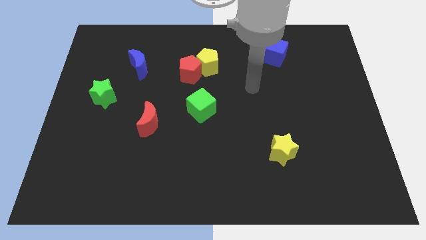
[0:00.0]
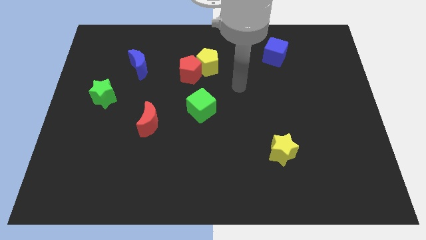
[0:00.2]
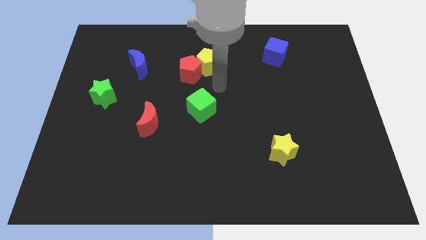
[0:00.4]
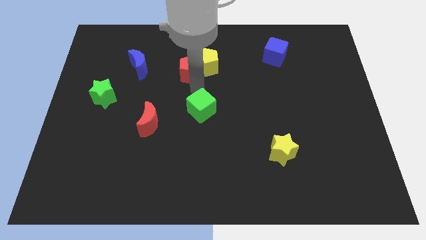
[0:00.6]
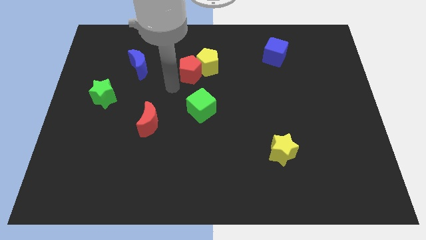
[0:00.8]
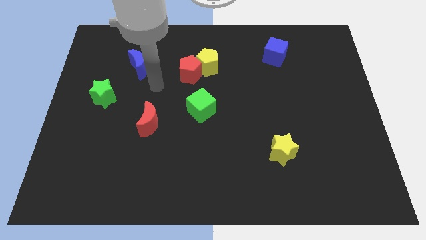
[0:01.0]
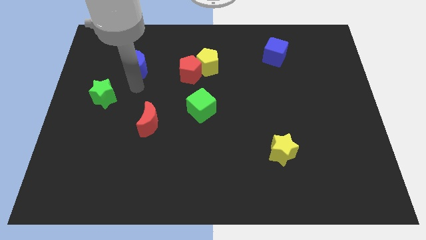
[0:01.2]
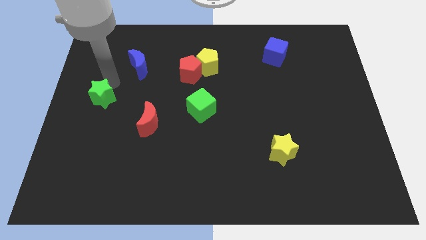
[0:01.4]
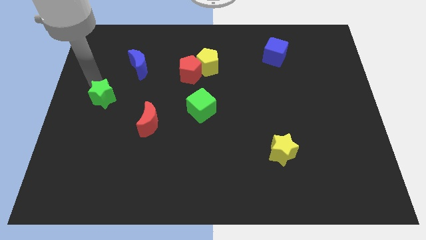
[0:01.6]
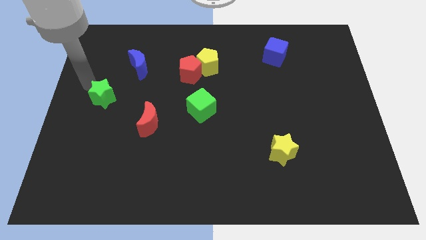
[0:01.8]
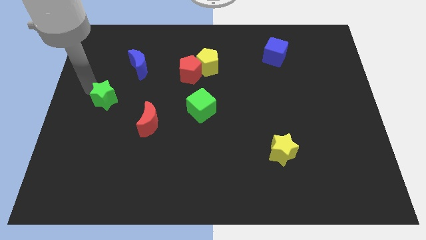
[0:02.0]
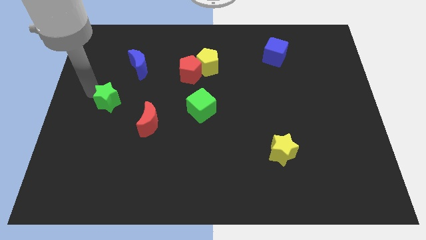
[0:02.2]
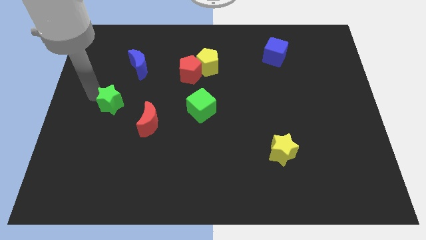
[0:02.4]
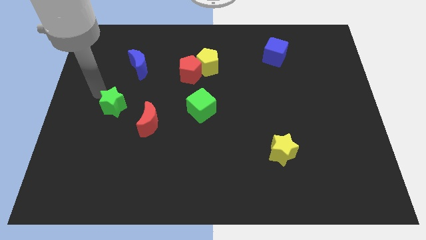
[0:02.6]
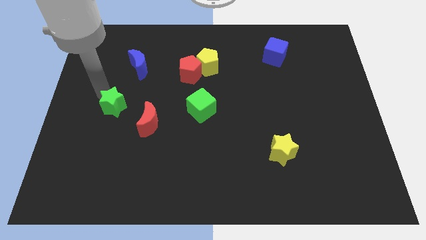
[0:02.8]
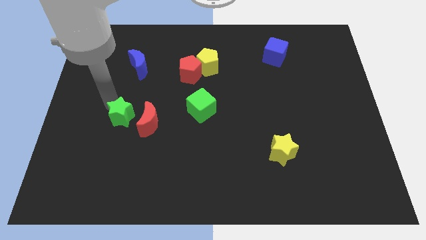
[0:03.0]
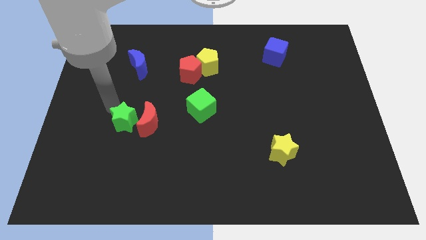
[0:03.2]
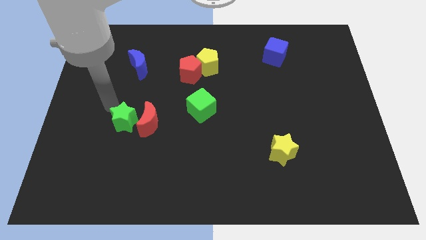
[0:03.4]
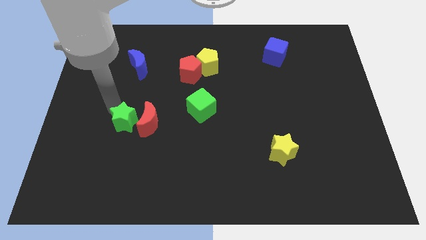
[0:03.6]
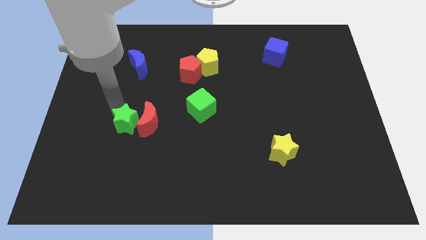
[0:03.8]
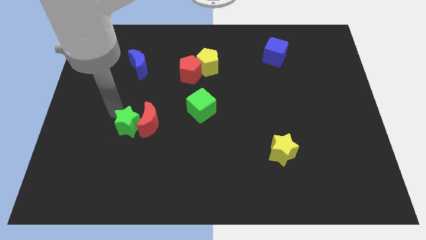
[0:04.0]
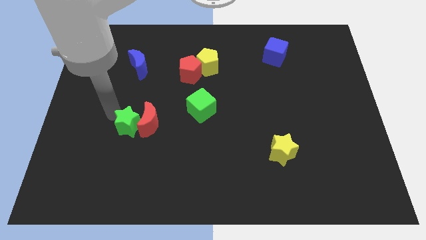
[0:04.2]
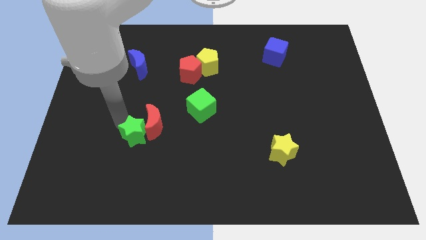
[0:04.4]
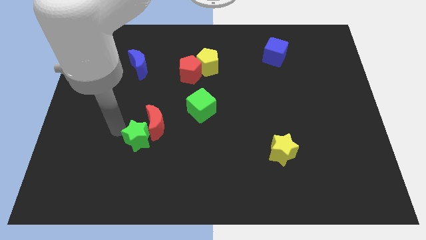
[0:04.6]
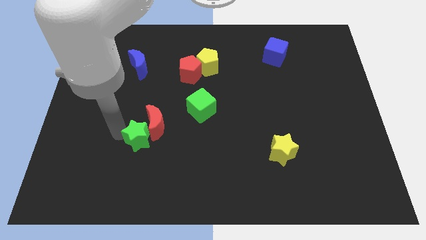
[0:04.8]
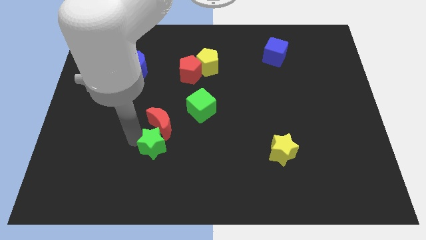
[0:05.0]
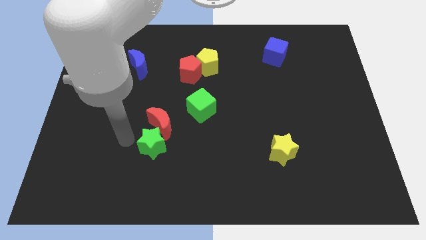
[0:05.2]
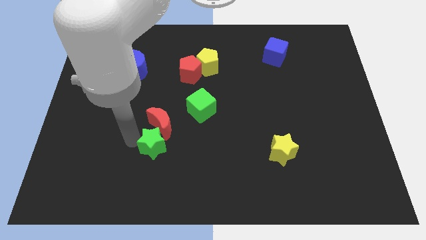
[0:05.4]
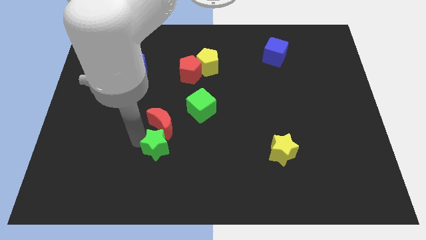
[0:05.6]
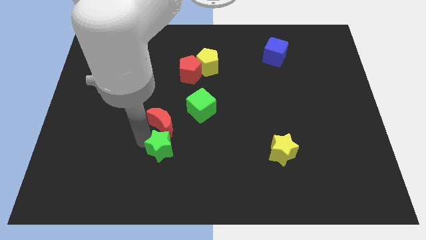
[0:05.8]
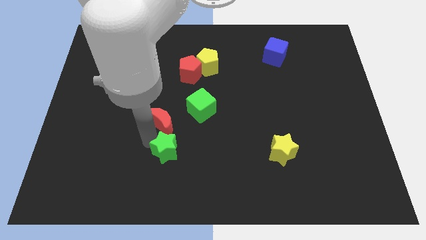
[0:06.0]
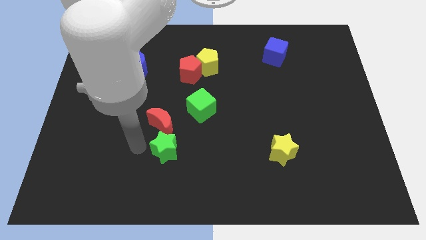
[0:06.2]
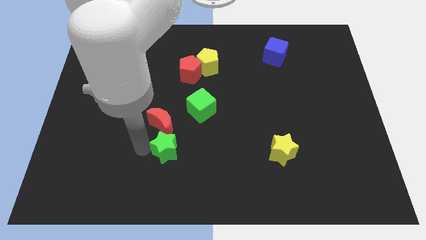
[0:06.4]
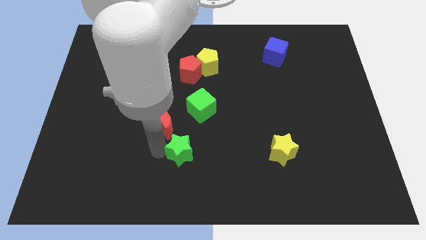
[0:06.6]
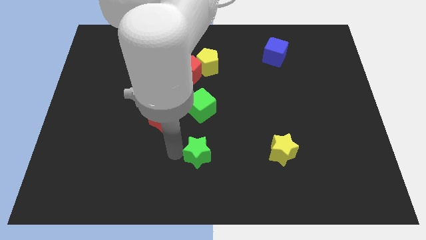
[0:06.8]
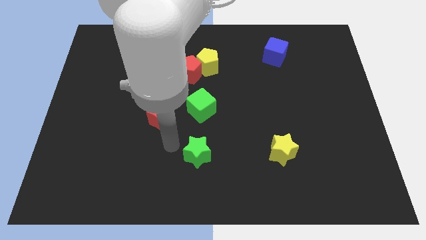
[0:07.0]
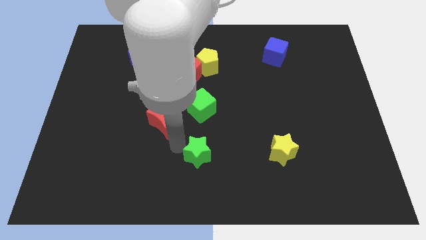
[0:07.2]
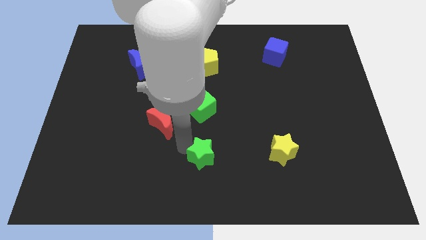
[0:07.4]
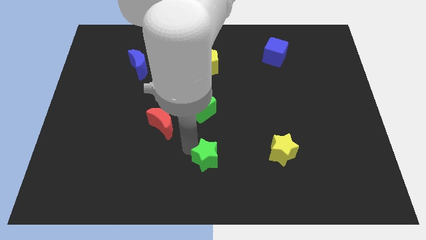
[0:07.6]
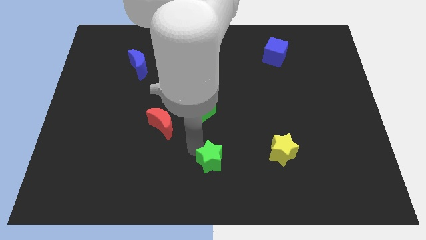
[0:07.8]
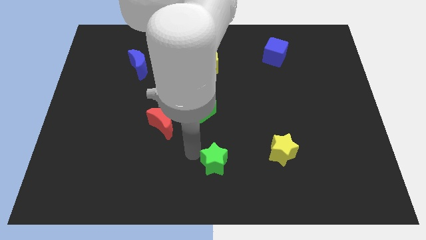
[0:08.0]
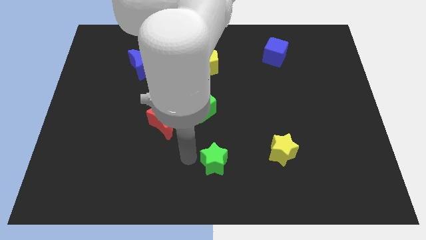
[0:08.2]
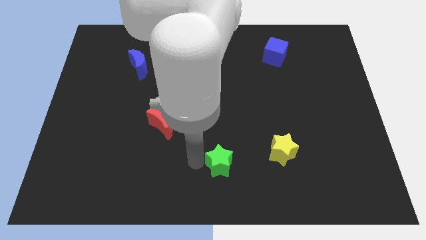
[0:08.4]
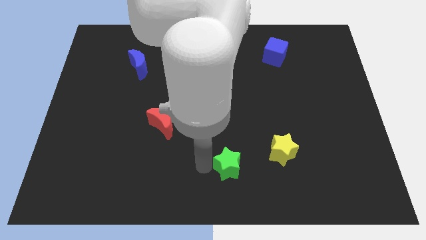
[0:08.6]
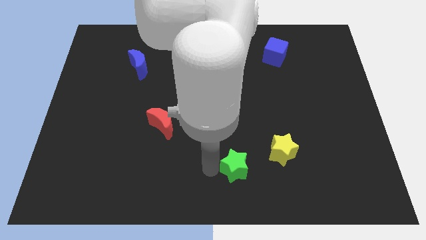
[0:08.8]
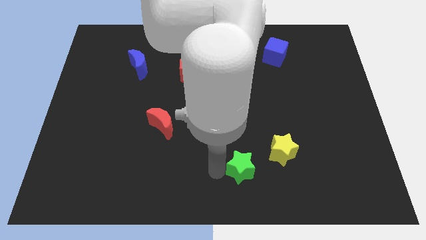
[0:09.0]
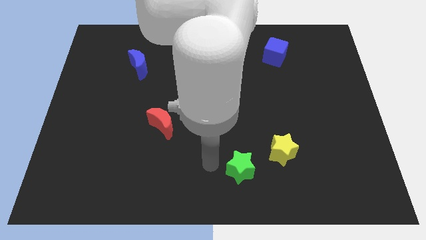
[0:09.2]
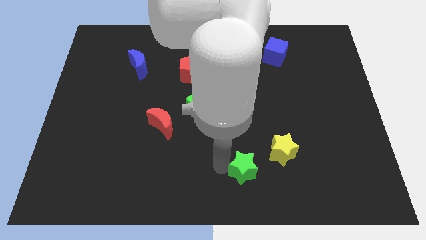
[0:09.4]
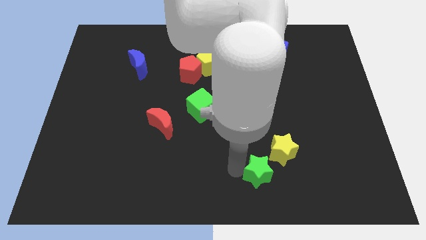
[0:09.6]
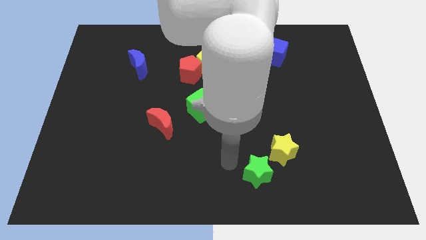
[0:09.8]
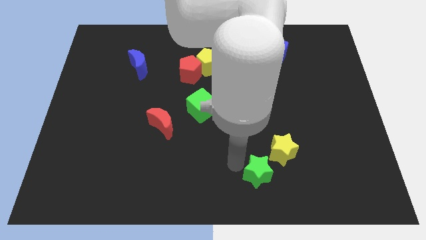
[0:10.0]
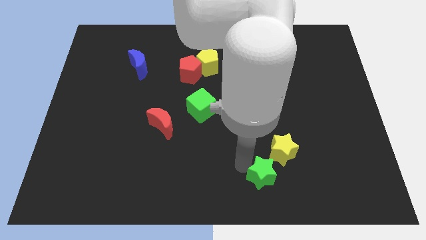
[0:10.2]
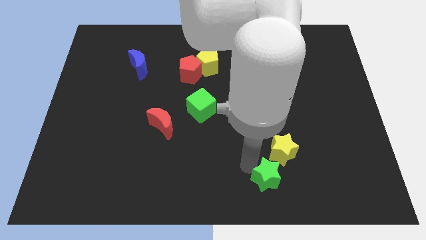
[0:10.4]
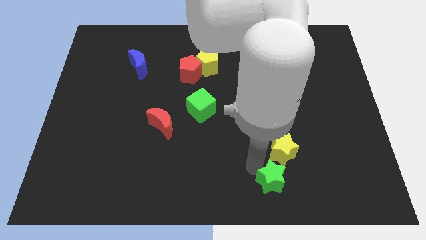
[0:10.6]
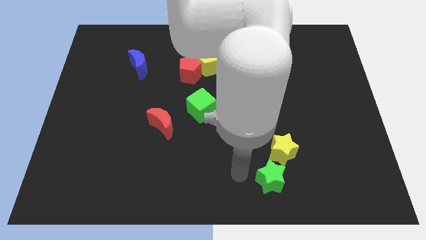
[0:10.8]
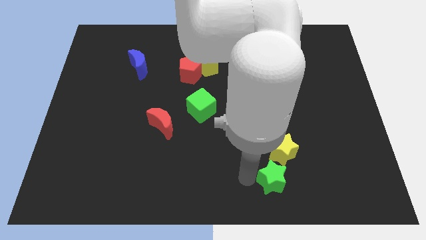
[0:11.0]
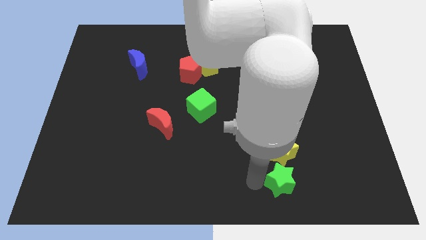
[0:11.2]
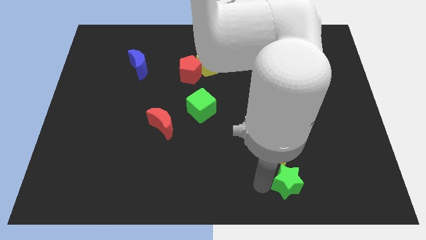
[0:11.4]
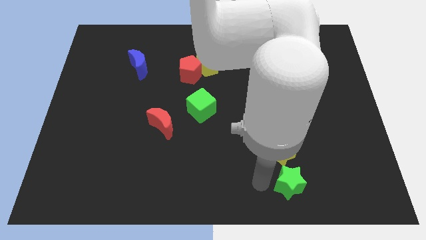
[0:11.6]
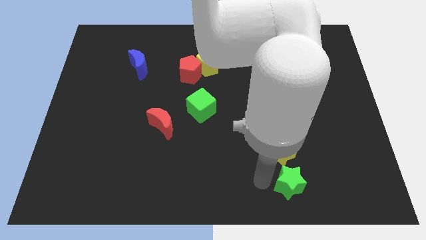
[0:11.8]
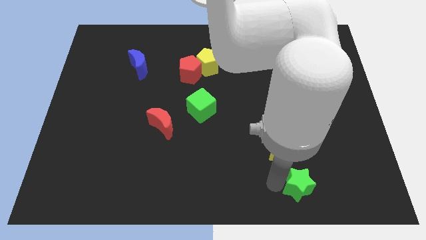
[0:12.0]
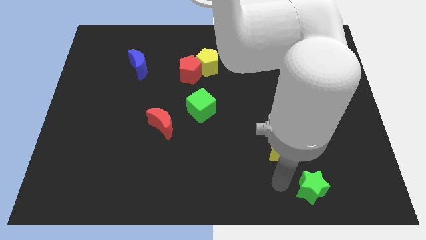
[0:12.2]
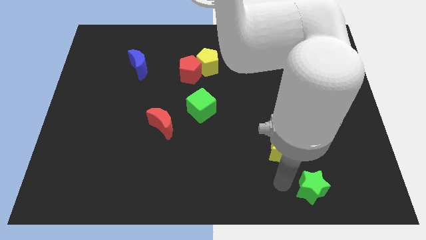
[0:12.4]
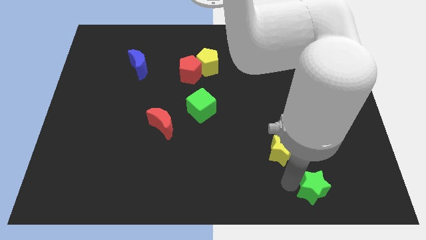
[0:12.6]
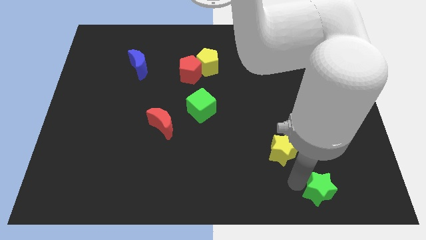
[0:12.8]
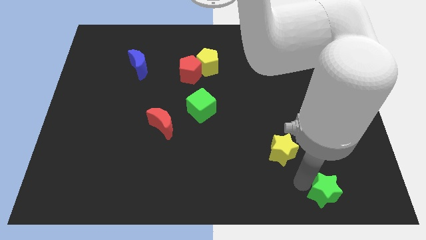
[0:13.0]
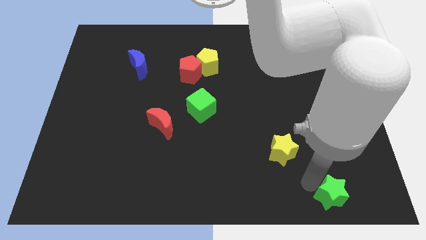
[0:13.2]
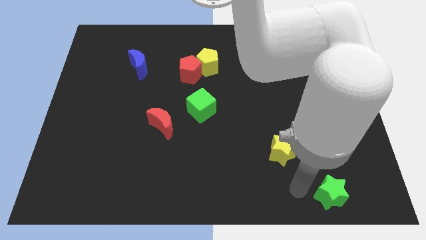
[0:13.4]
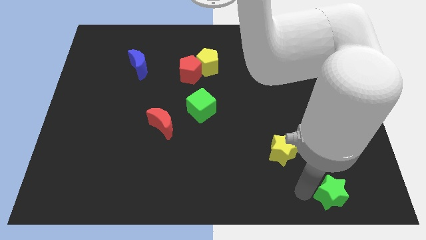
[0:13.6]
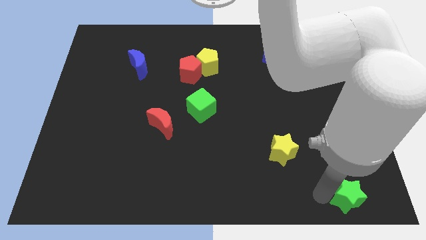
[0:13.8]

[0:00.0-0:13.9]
slide the green star to the bottom right corner
